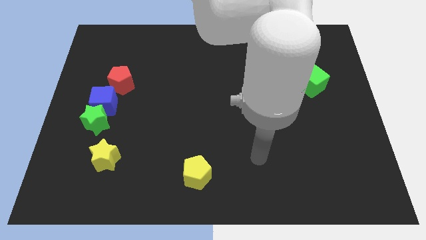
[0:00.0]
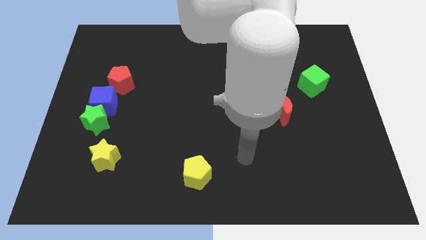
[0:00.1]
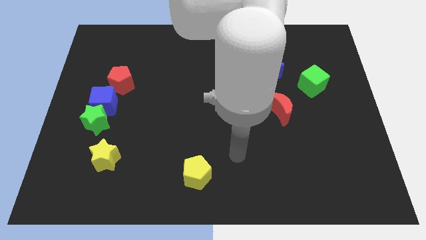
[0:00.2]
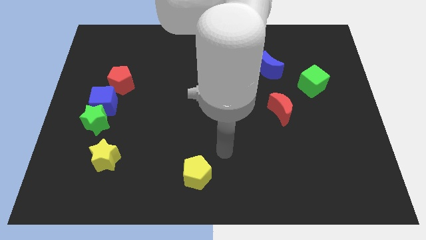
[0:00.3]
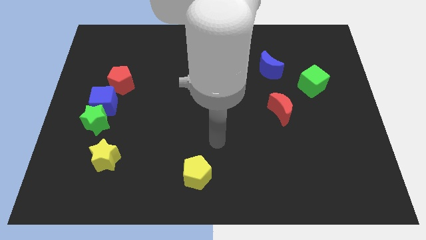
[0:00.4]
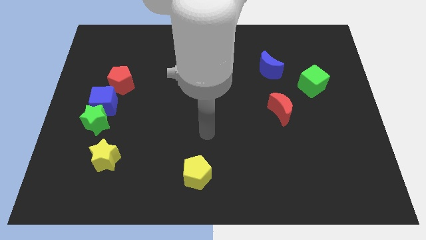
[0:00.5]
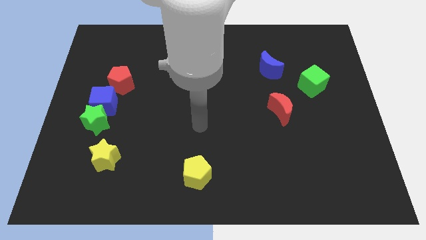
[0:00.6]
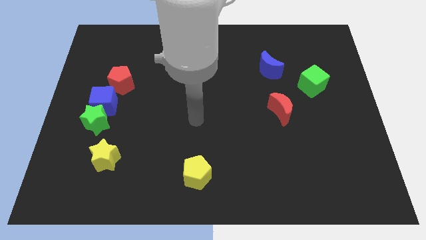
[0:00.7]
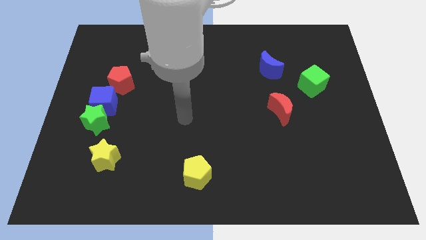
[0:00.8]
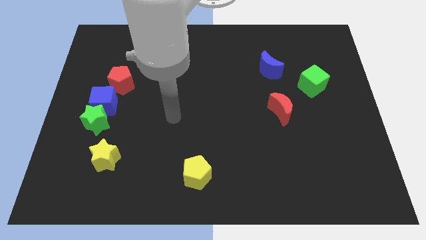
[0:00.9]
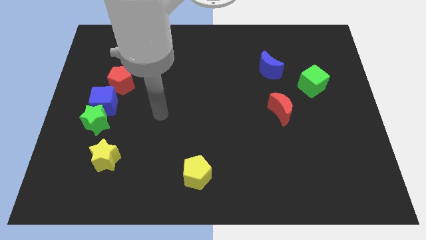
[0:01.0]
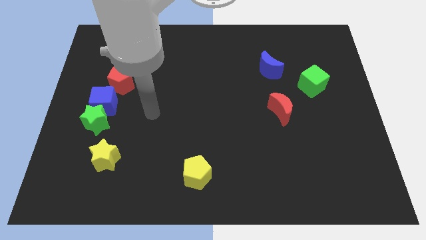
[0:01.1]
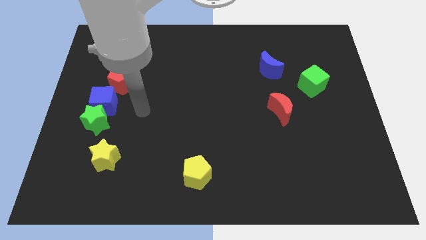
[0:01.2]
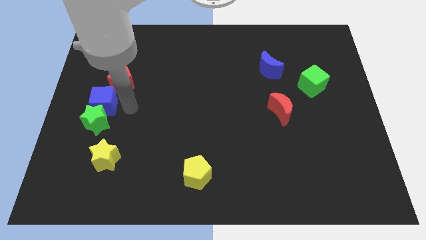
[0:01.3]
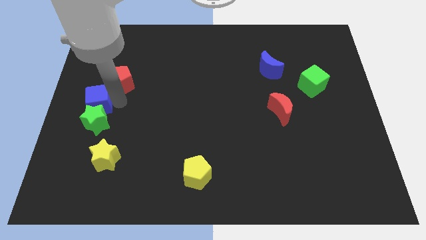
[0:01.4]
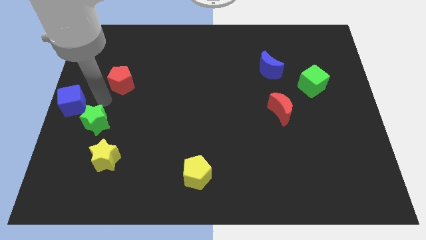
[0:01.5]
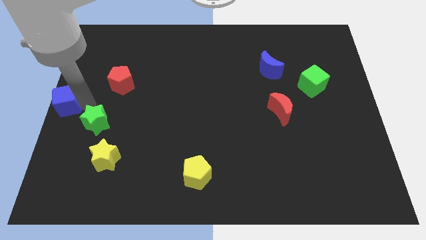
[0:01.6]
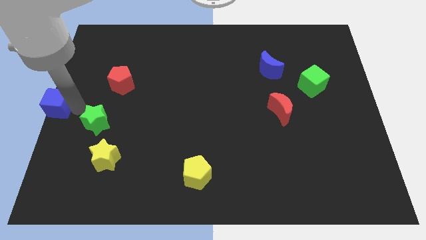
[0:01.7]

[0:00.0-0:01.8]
separate the green star from the blue cube

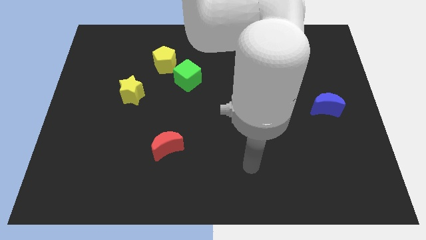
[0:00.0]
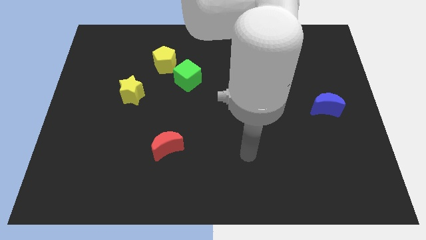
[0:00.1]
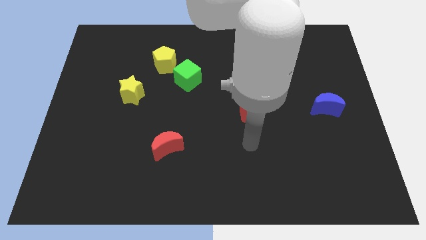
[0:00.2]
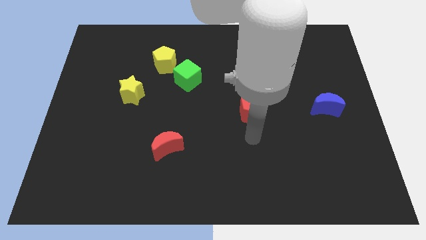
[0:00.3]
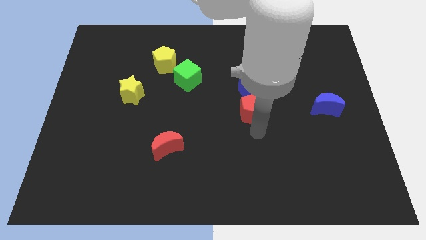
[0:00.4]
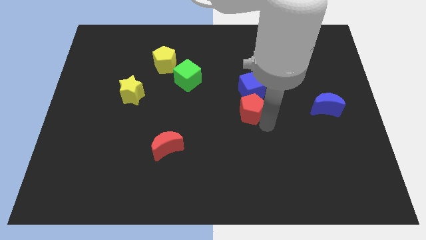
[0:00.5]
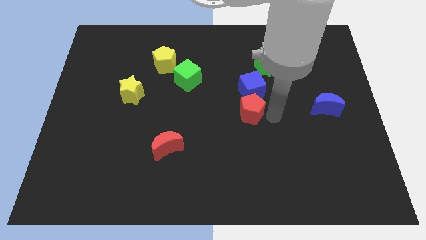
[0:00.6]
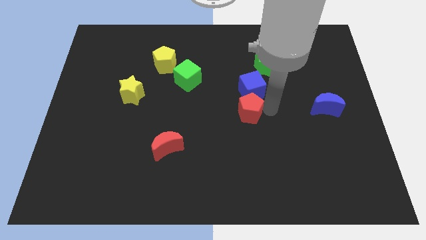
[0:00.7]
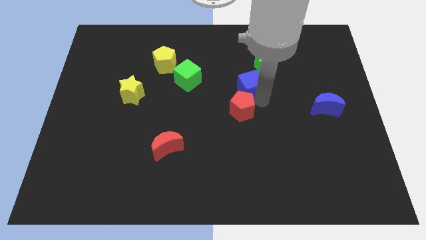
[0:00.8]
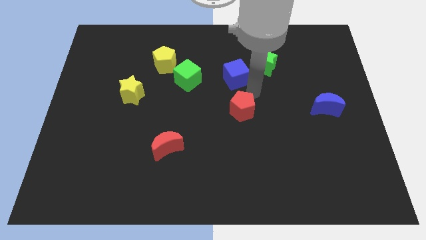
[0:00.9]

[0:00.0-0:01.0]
separate the red pentagon from the blue cube

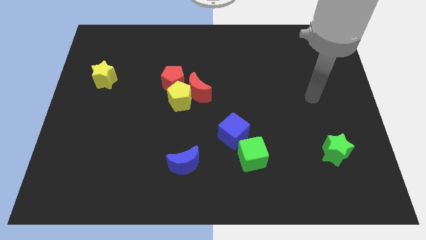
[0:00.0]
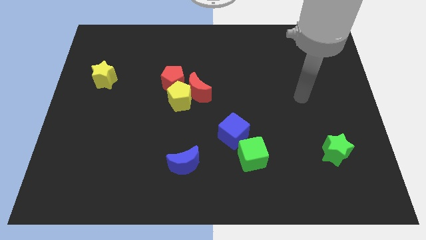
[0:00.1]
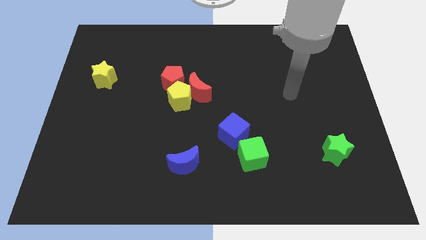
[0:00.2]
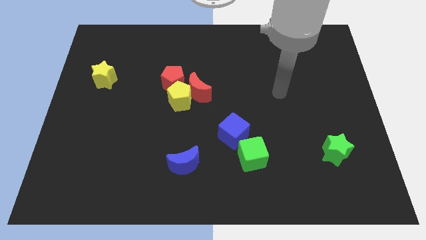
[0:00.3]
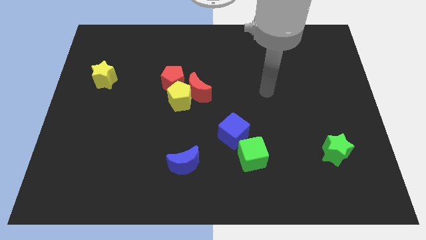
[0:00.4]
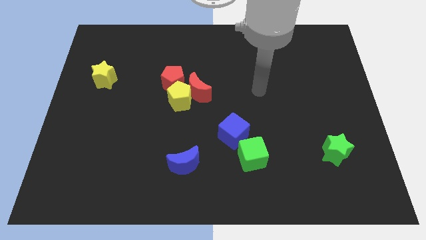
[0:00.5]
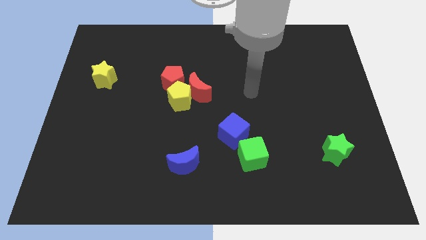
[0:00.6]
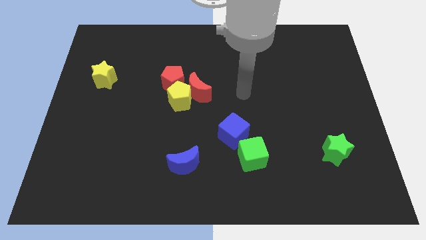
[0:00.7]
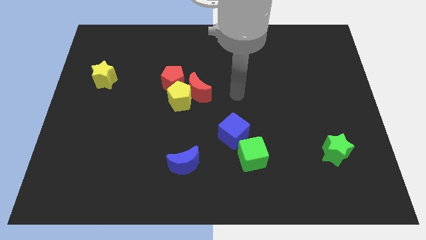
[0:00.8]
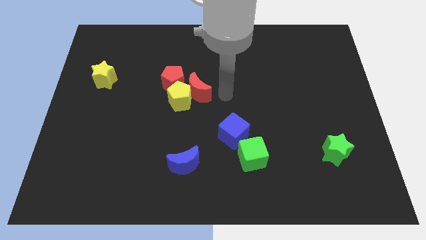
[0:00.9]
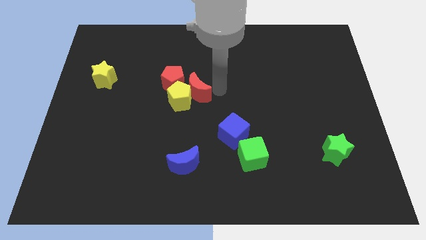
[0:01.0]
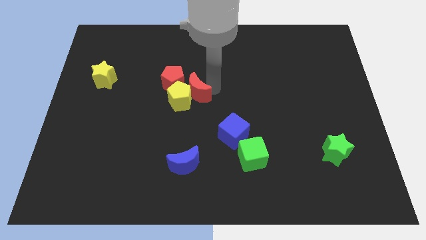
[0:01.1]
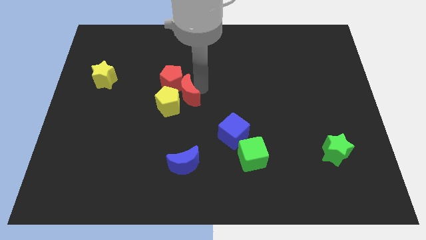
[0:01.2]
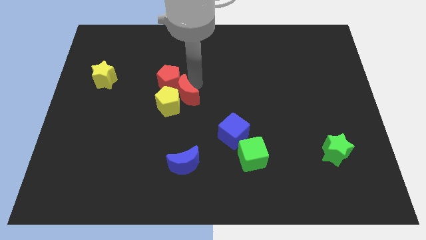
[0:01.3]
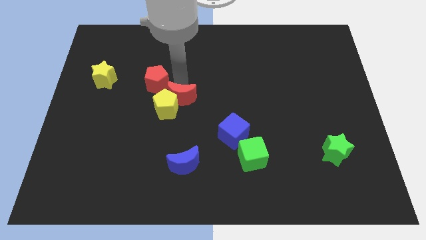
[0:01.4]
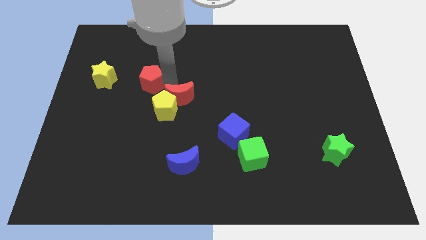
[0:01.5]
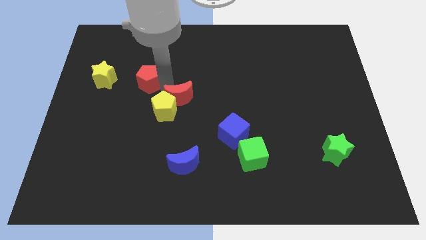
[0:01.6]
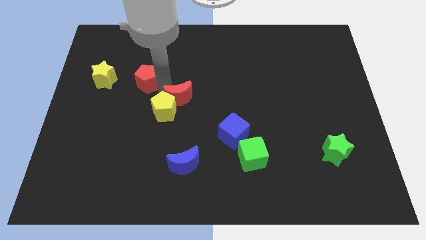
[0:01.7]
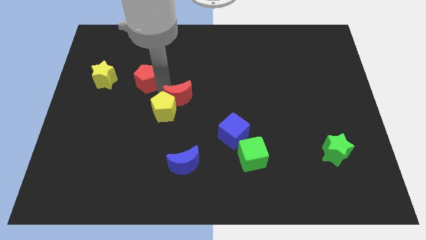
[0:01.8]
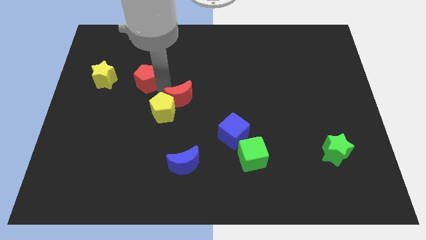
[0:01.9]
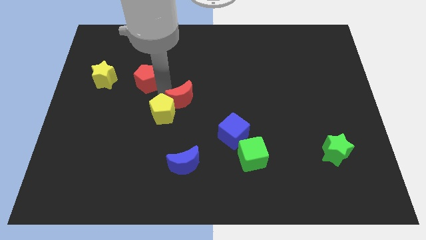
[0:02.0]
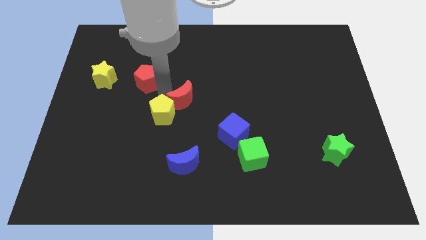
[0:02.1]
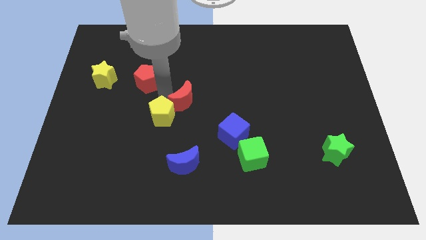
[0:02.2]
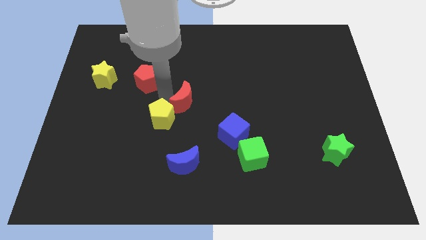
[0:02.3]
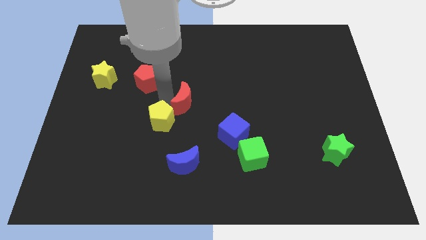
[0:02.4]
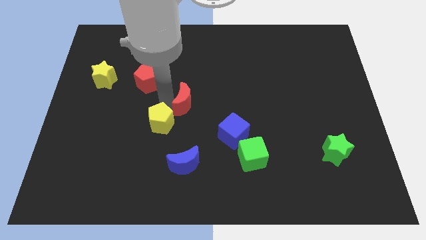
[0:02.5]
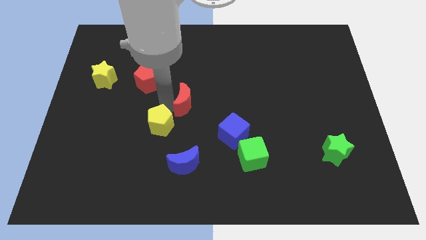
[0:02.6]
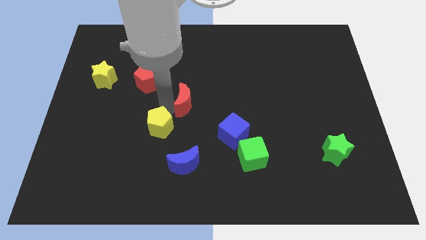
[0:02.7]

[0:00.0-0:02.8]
pull the yellow pentagon apart from the red moon and red pentagon

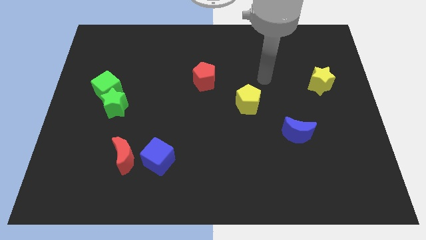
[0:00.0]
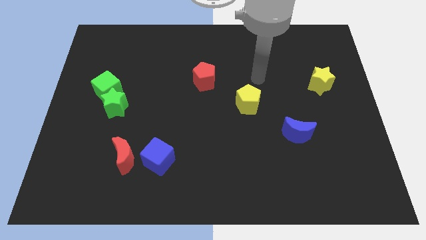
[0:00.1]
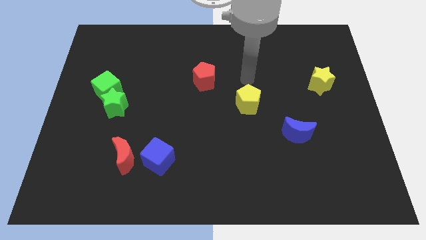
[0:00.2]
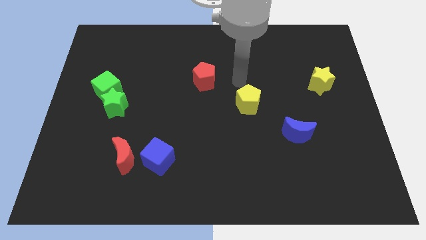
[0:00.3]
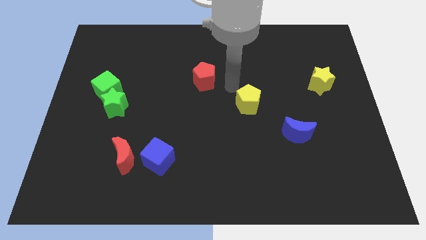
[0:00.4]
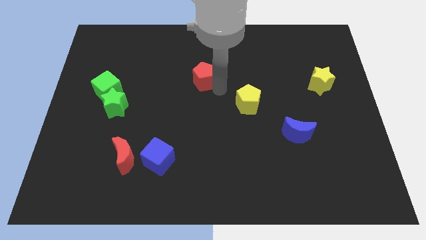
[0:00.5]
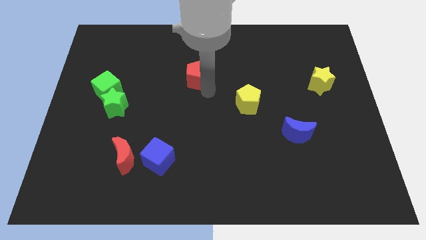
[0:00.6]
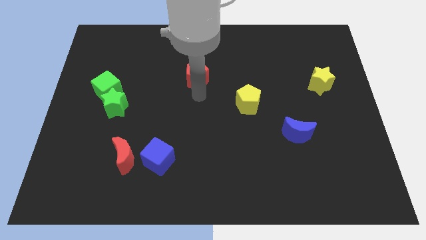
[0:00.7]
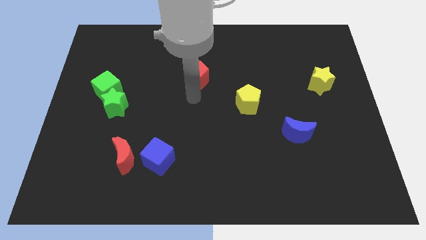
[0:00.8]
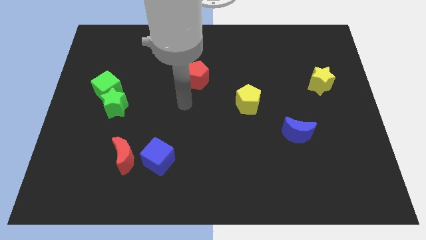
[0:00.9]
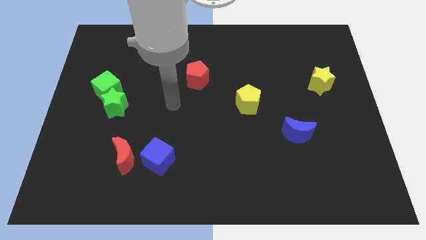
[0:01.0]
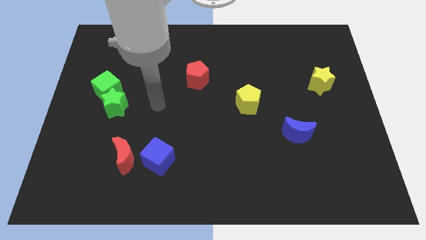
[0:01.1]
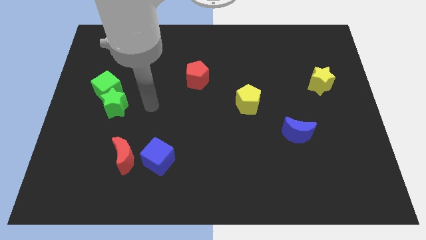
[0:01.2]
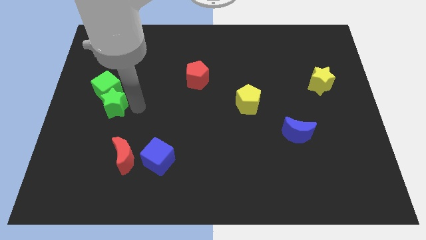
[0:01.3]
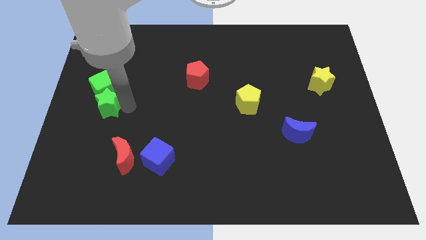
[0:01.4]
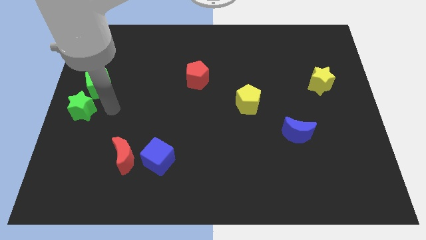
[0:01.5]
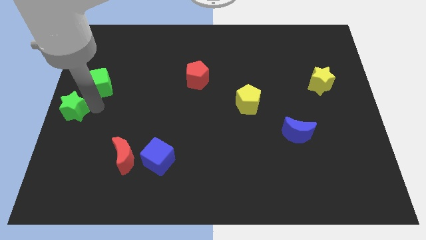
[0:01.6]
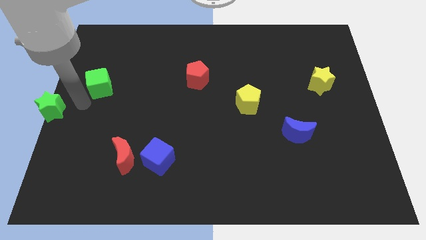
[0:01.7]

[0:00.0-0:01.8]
pull the green cube apart from the green star

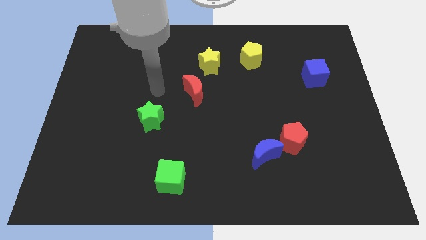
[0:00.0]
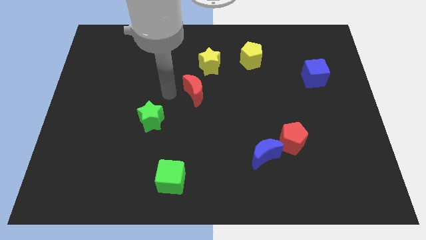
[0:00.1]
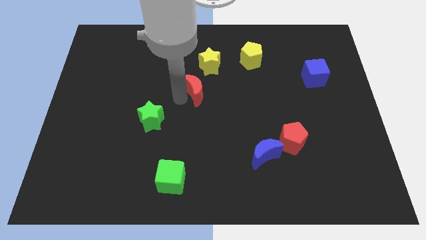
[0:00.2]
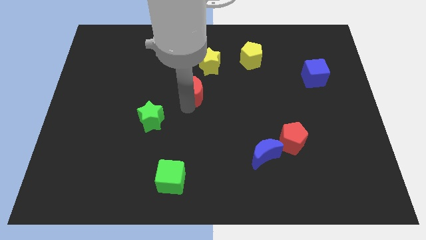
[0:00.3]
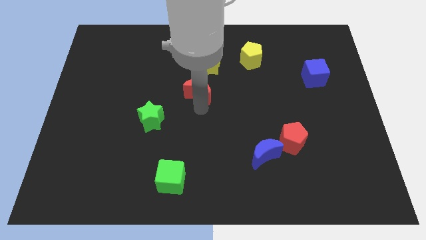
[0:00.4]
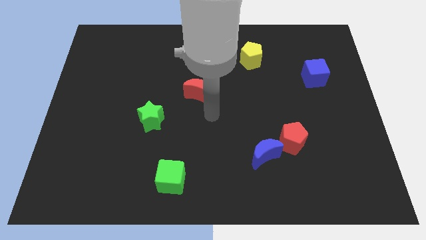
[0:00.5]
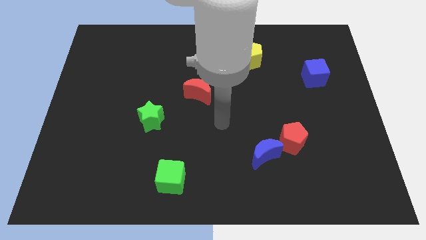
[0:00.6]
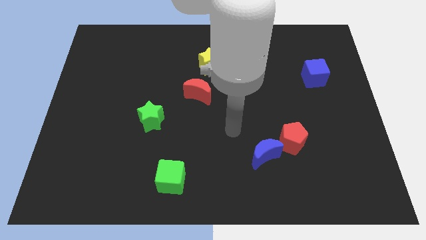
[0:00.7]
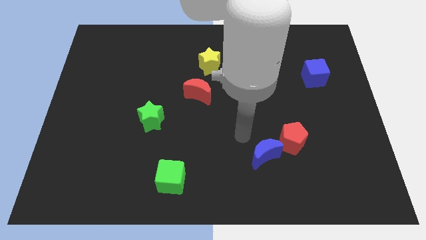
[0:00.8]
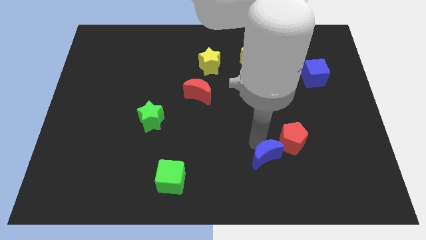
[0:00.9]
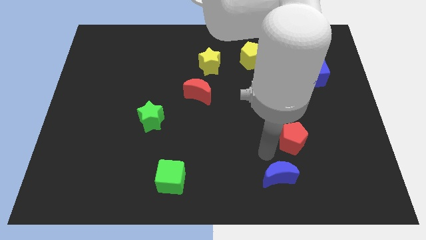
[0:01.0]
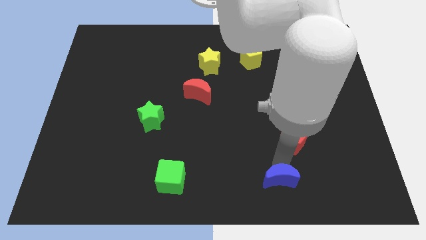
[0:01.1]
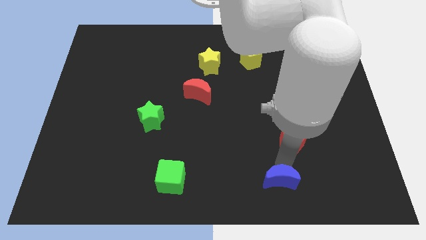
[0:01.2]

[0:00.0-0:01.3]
separate the red pentagon from the blue moon

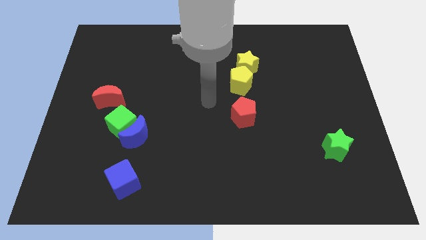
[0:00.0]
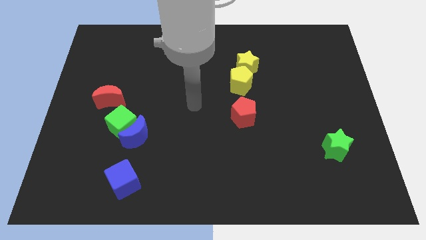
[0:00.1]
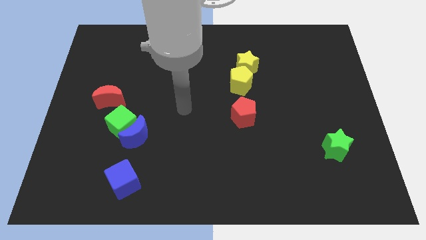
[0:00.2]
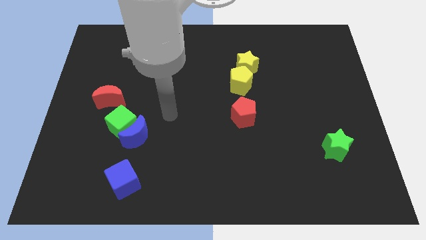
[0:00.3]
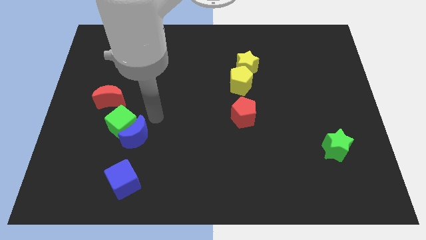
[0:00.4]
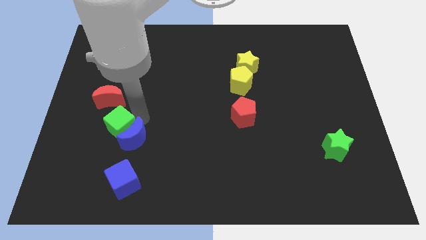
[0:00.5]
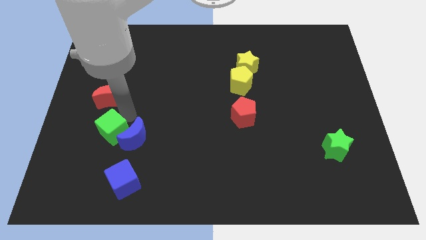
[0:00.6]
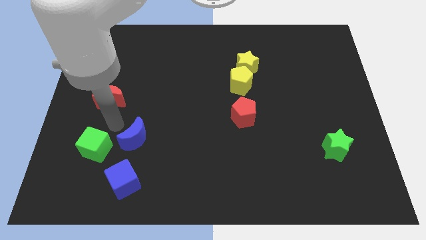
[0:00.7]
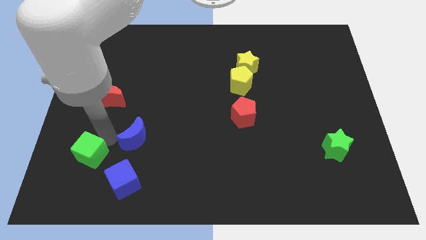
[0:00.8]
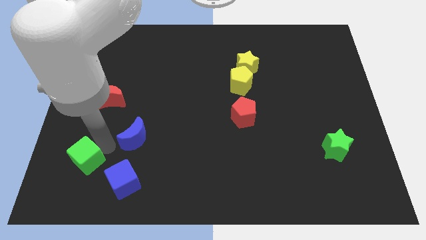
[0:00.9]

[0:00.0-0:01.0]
separate the blue moon from the green cube
